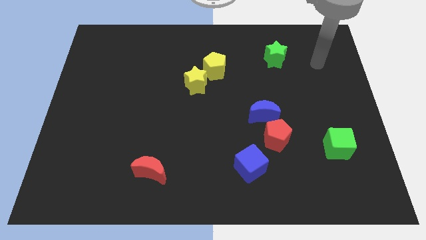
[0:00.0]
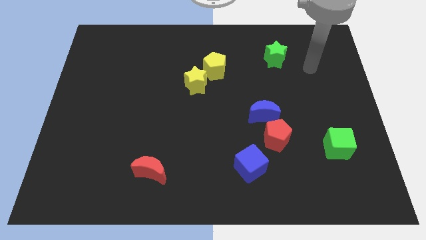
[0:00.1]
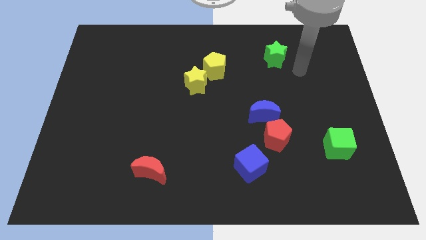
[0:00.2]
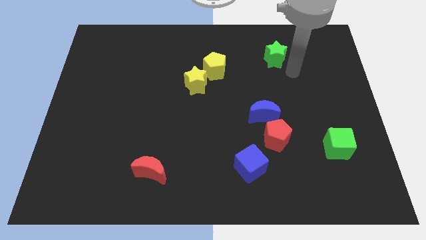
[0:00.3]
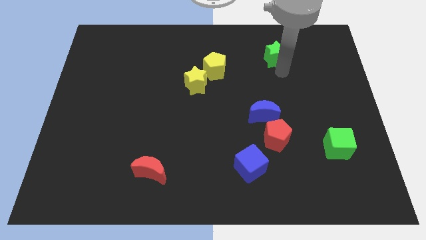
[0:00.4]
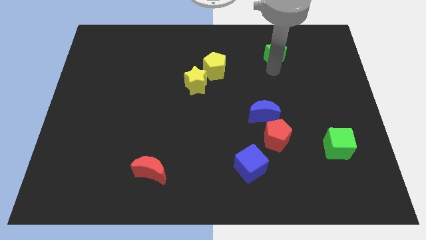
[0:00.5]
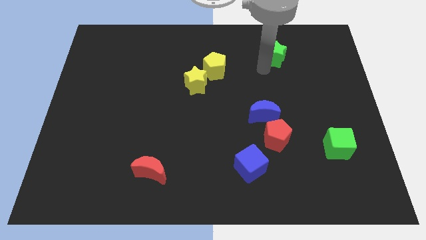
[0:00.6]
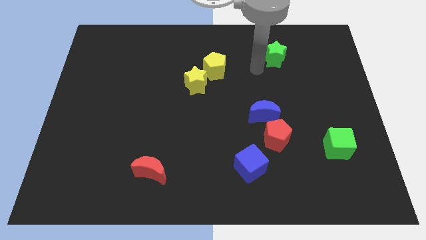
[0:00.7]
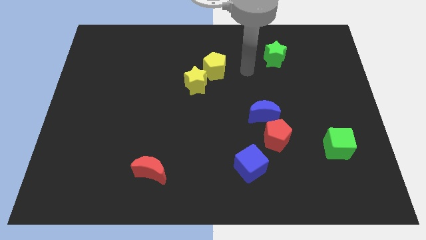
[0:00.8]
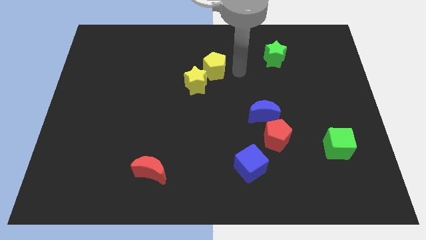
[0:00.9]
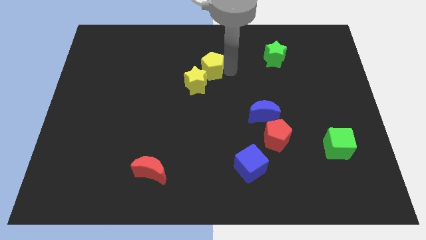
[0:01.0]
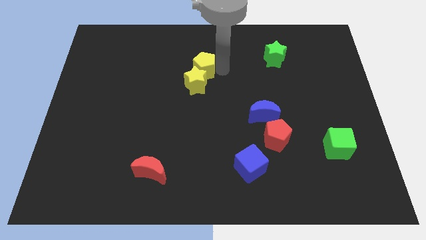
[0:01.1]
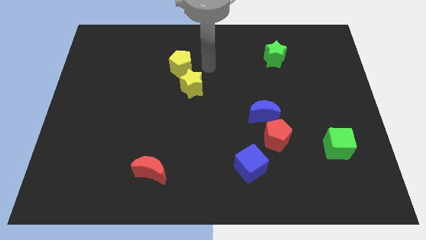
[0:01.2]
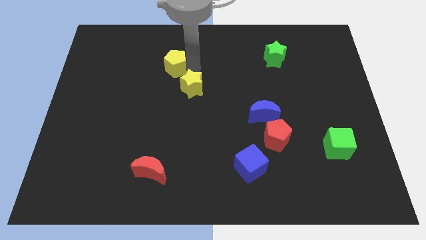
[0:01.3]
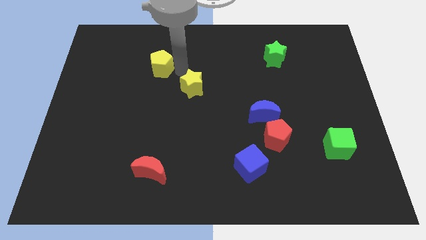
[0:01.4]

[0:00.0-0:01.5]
move the yellow star away from the yellow pentagon

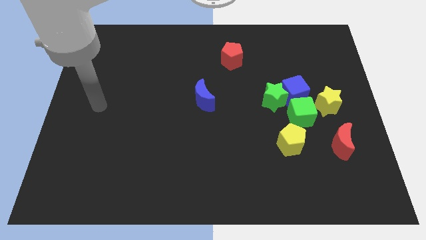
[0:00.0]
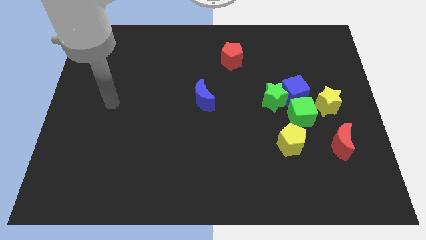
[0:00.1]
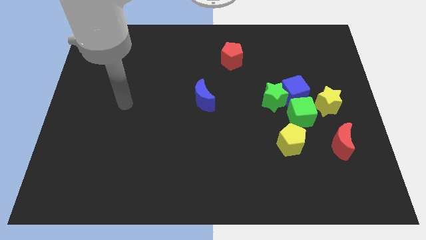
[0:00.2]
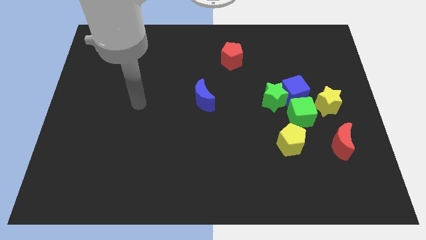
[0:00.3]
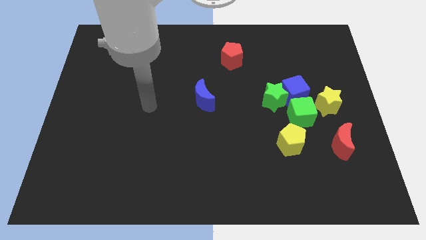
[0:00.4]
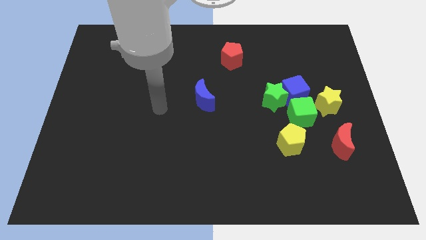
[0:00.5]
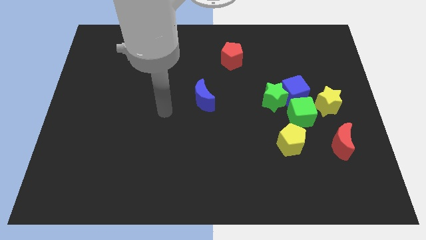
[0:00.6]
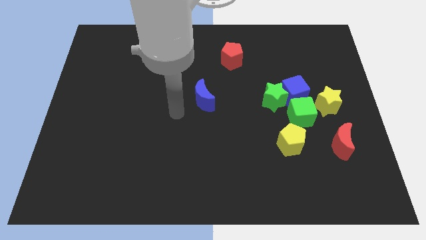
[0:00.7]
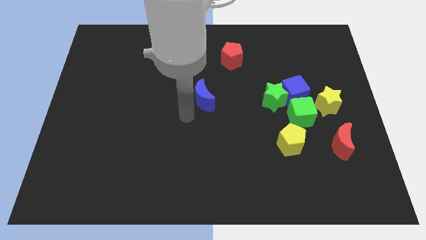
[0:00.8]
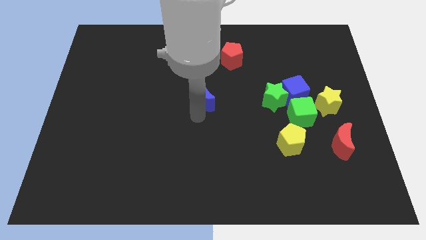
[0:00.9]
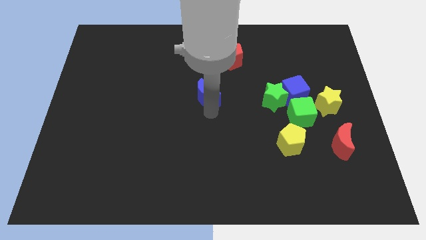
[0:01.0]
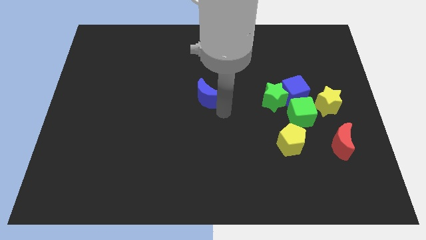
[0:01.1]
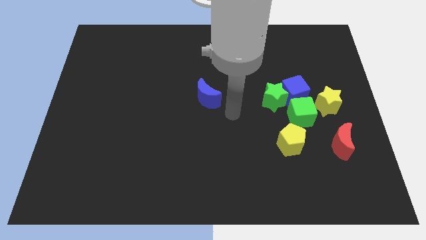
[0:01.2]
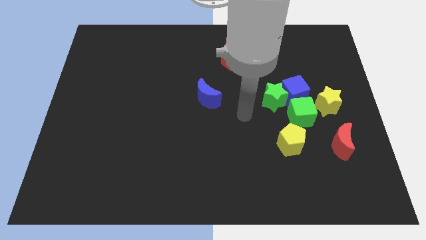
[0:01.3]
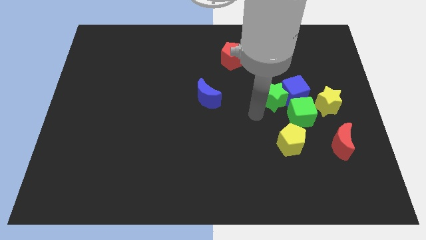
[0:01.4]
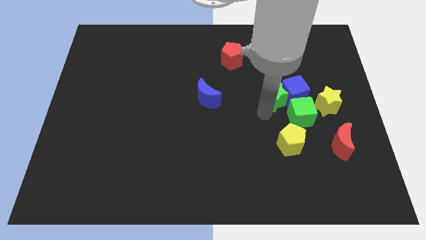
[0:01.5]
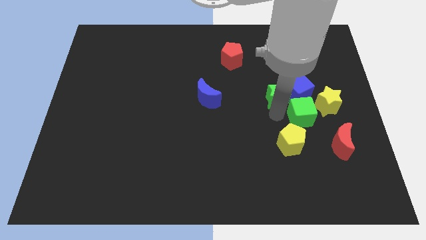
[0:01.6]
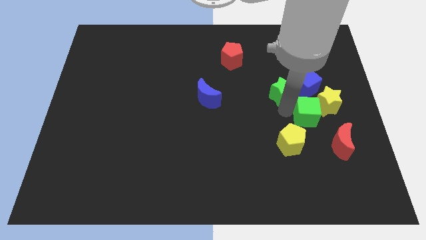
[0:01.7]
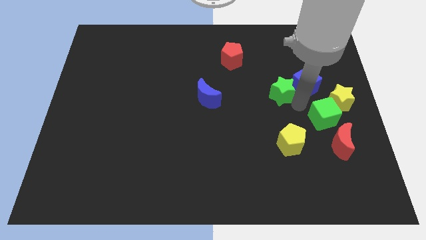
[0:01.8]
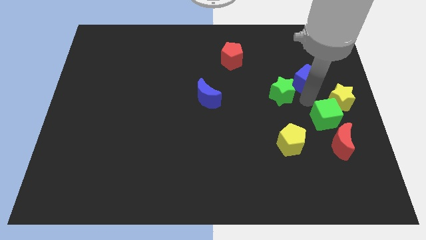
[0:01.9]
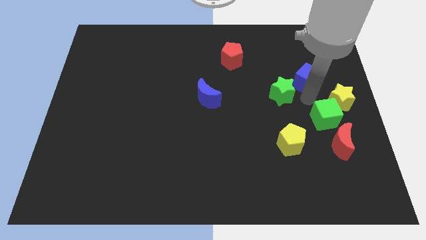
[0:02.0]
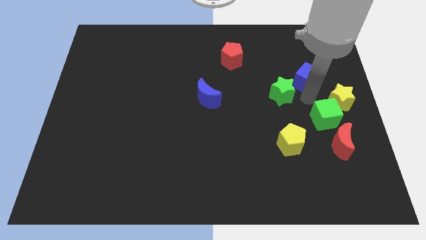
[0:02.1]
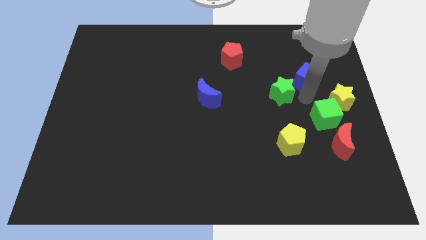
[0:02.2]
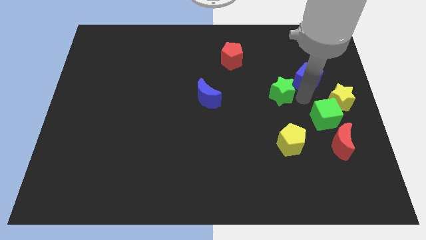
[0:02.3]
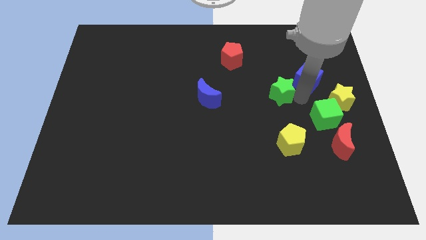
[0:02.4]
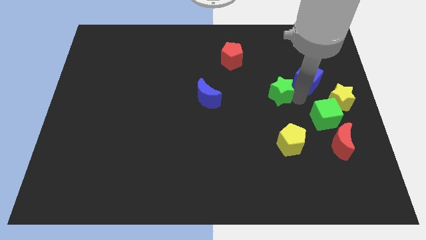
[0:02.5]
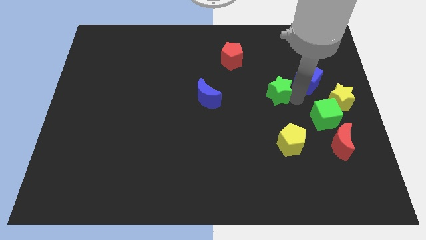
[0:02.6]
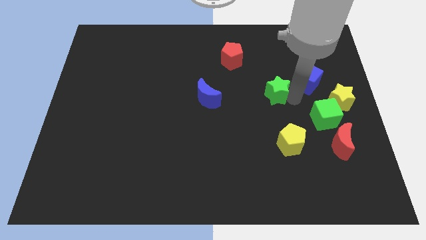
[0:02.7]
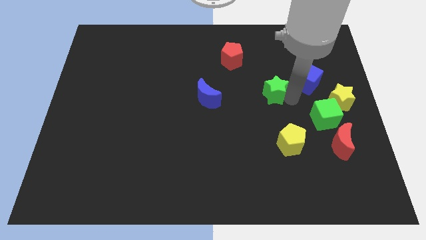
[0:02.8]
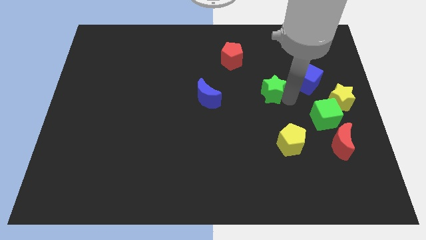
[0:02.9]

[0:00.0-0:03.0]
separate the green star from the blue cube and green cube

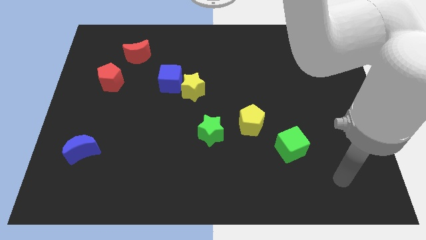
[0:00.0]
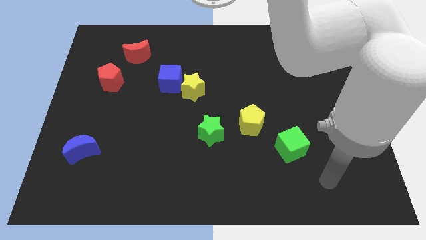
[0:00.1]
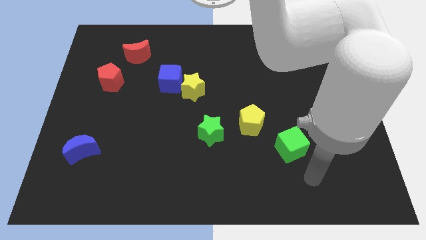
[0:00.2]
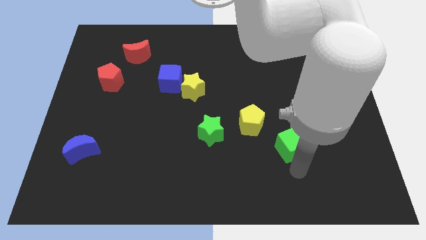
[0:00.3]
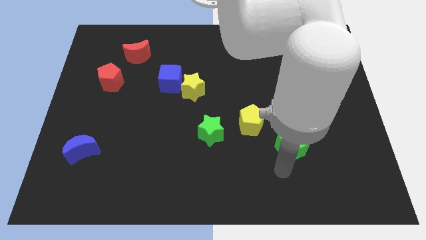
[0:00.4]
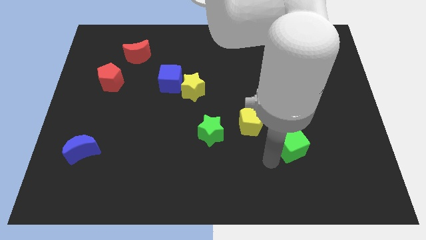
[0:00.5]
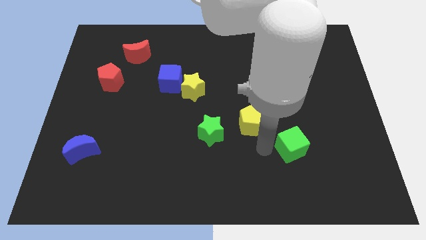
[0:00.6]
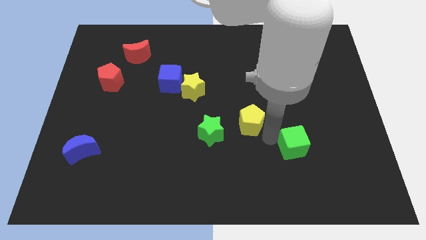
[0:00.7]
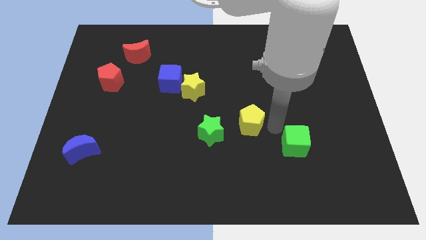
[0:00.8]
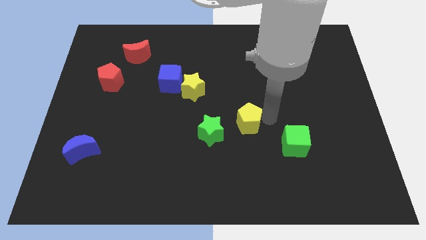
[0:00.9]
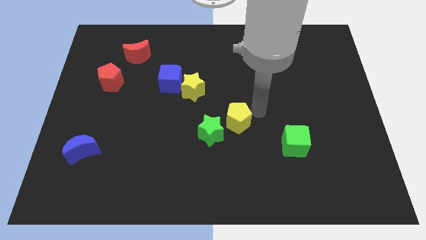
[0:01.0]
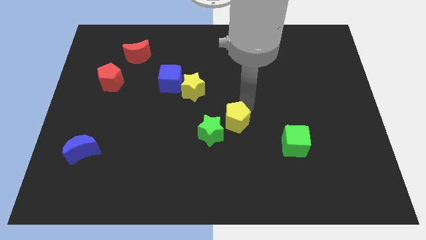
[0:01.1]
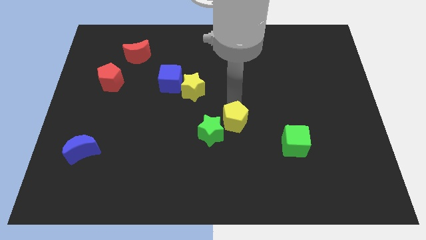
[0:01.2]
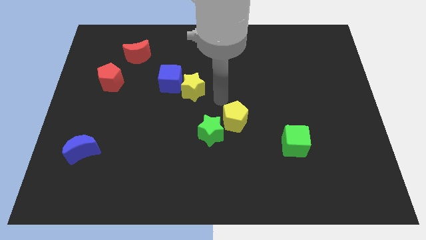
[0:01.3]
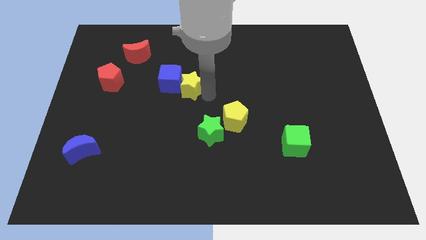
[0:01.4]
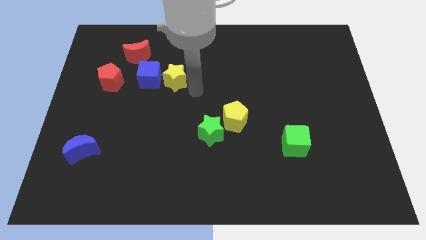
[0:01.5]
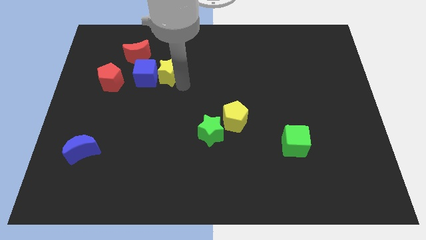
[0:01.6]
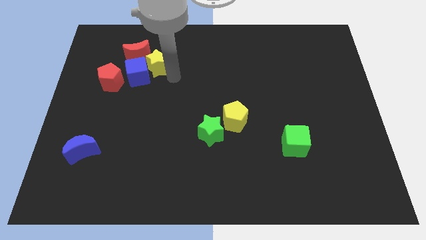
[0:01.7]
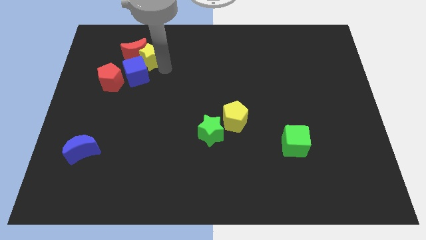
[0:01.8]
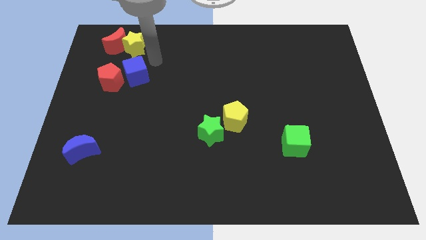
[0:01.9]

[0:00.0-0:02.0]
pull the blue cube apart from the yellow star

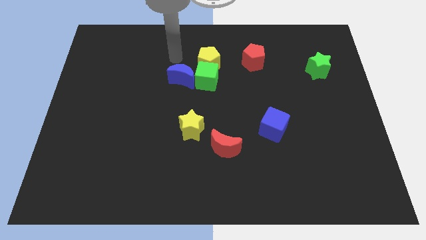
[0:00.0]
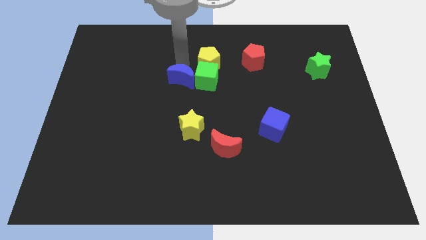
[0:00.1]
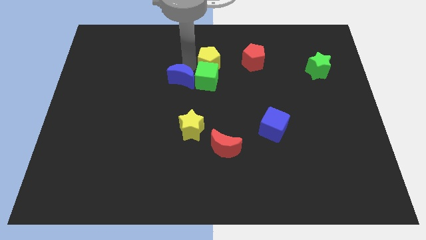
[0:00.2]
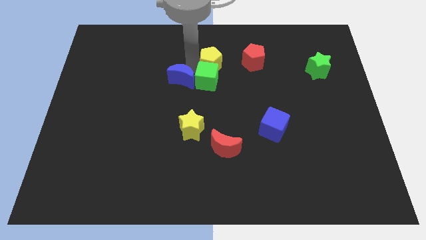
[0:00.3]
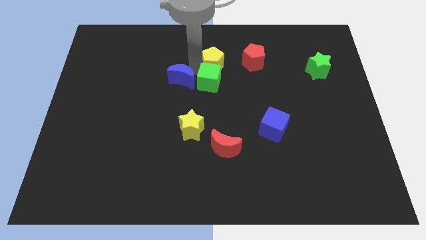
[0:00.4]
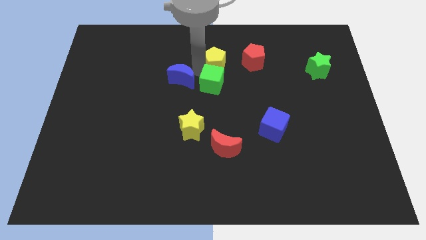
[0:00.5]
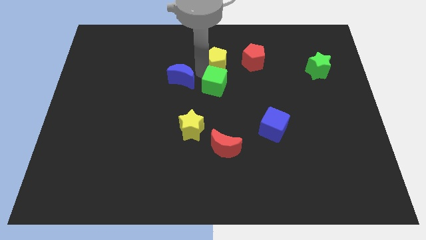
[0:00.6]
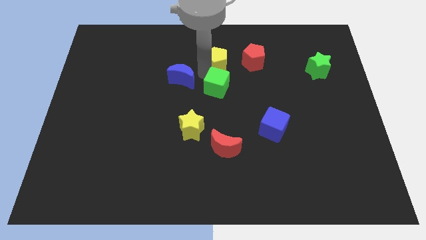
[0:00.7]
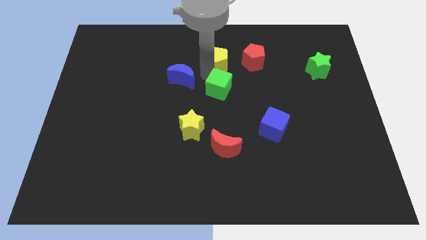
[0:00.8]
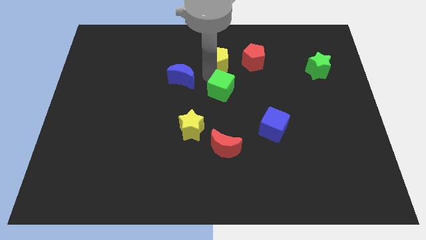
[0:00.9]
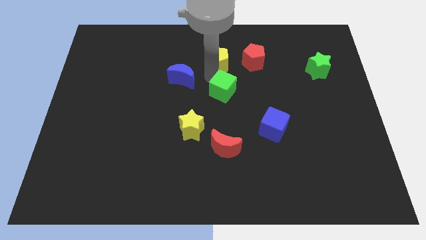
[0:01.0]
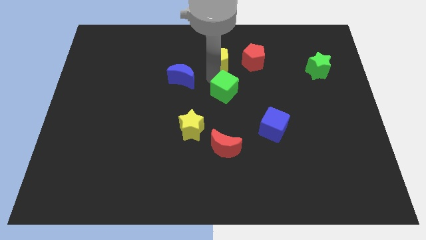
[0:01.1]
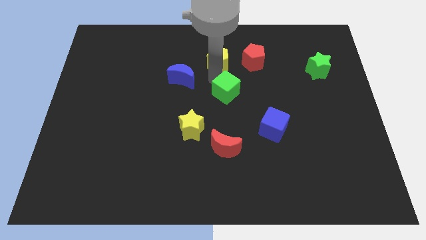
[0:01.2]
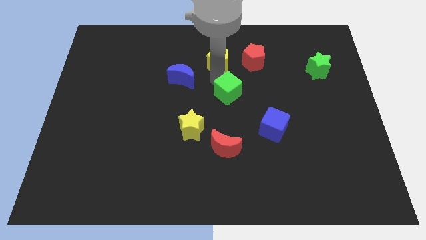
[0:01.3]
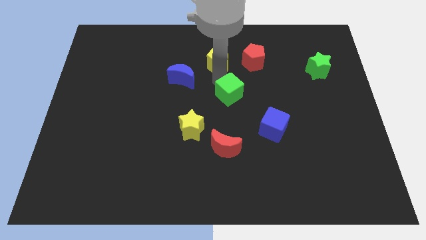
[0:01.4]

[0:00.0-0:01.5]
separate the green cube from the yellow pentagon and blue moon

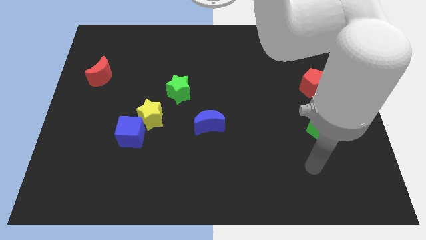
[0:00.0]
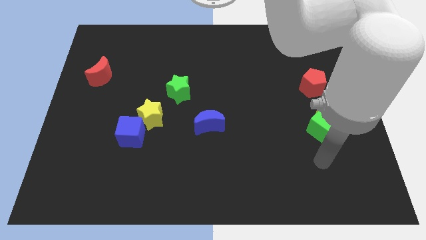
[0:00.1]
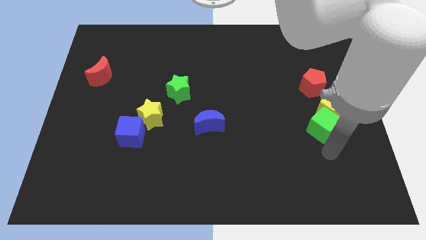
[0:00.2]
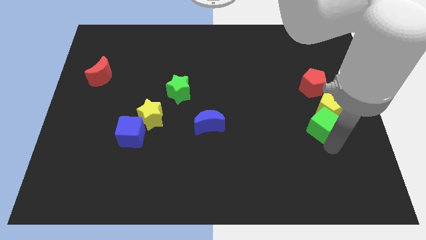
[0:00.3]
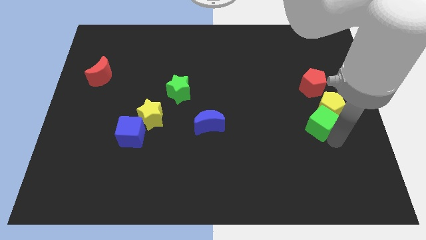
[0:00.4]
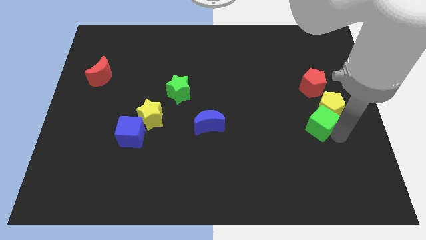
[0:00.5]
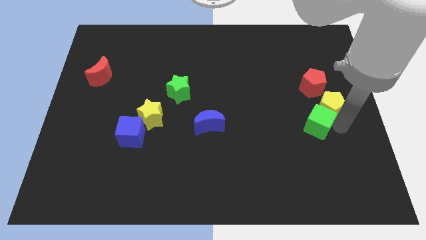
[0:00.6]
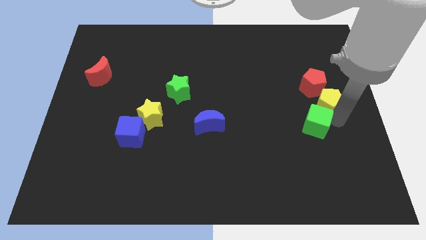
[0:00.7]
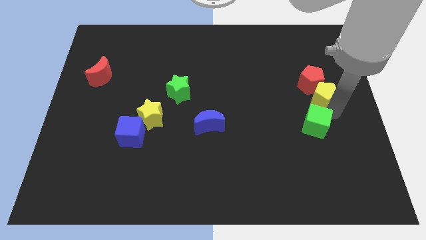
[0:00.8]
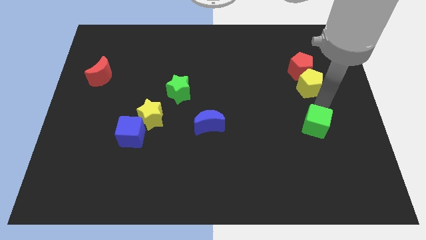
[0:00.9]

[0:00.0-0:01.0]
move the green cube away from the yellow pentagon

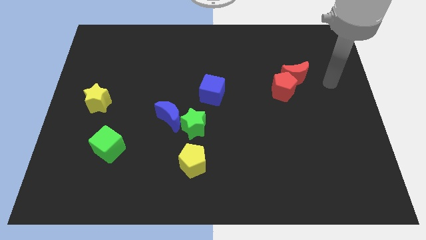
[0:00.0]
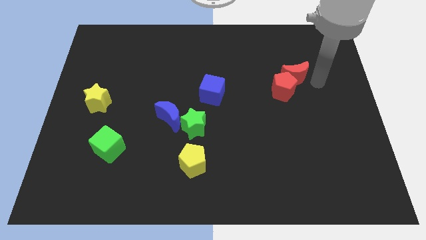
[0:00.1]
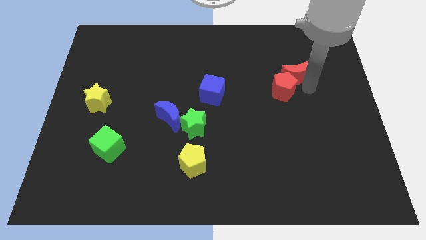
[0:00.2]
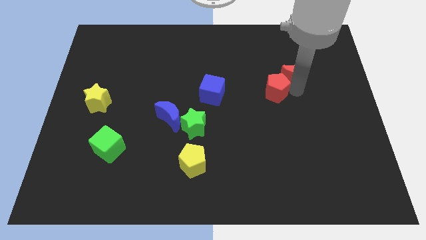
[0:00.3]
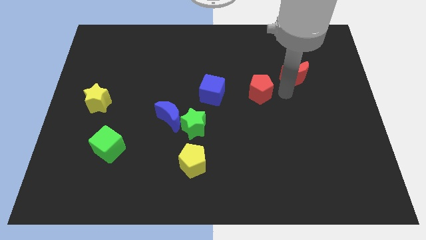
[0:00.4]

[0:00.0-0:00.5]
separate the red moon from the red pentagon
